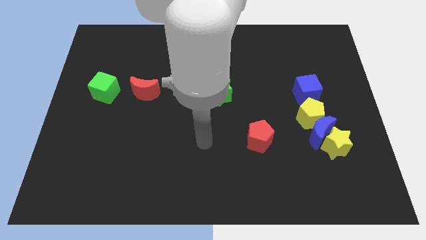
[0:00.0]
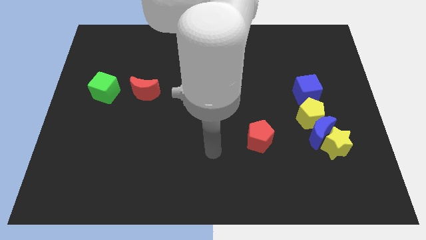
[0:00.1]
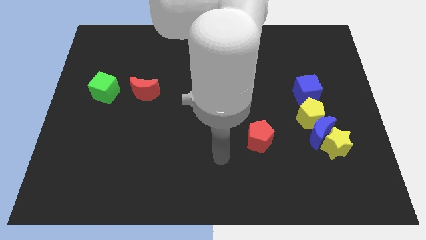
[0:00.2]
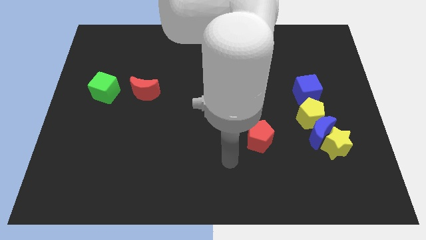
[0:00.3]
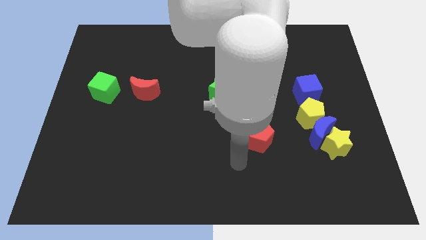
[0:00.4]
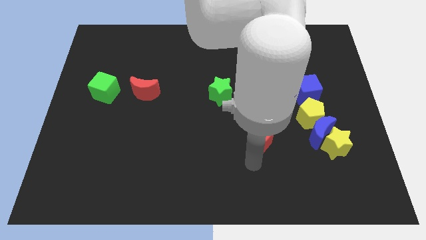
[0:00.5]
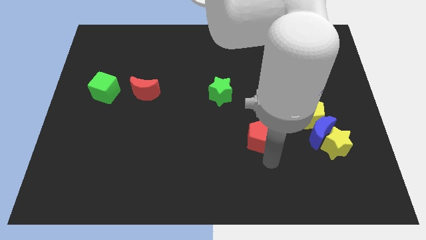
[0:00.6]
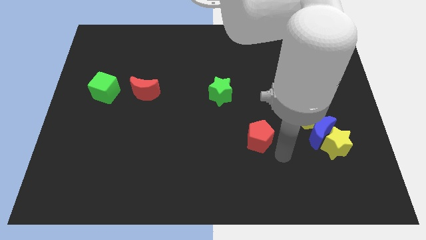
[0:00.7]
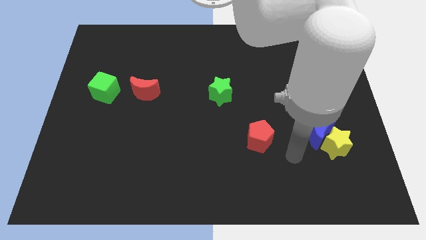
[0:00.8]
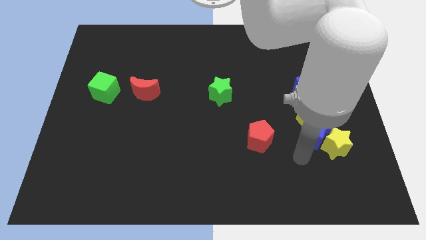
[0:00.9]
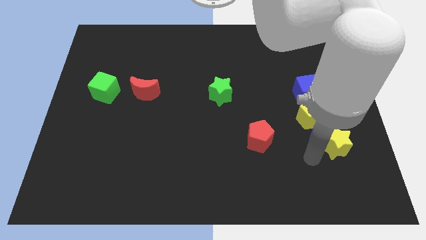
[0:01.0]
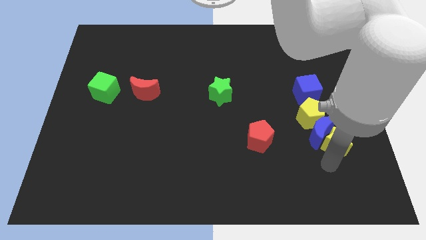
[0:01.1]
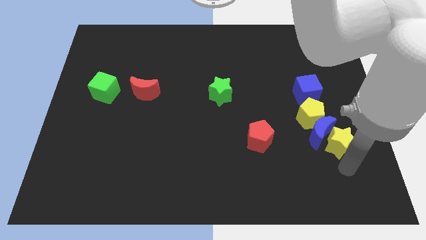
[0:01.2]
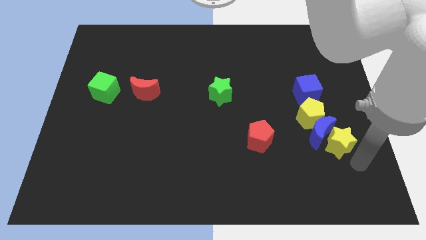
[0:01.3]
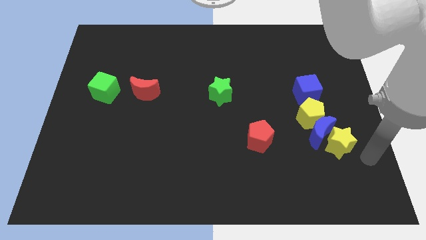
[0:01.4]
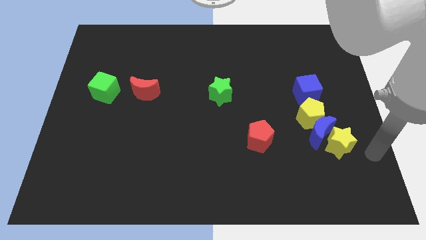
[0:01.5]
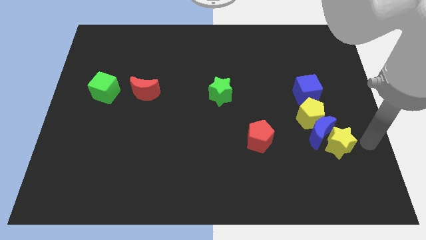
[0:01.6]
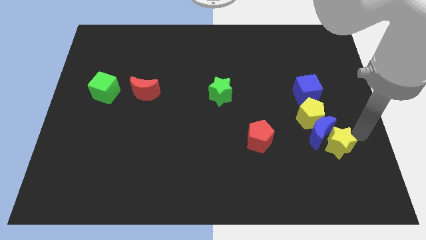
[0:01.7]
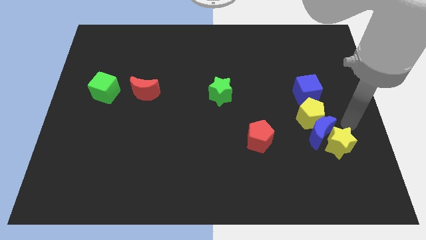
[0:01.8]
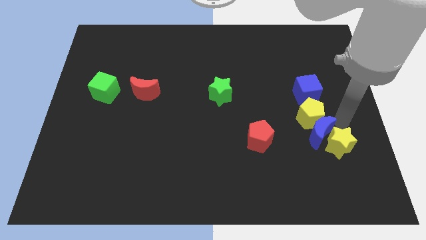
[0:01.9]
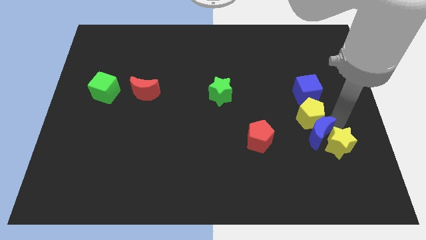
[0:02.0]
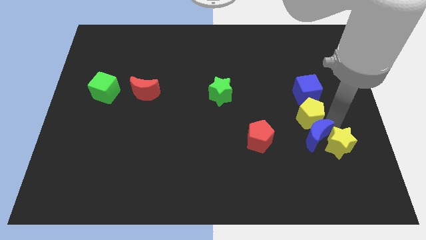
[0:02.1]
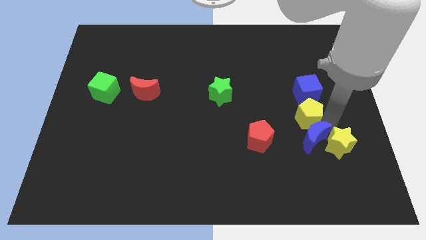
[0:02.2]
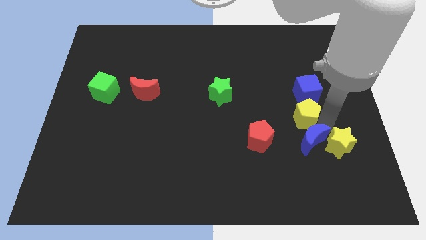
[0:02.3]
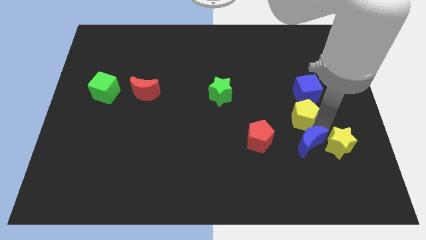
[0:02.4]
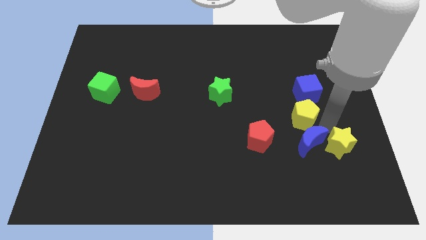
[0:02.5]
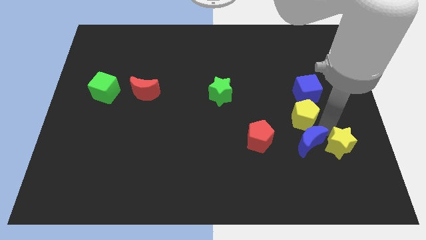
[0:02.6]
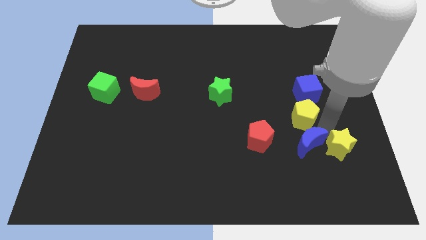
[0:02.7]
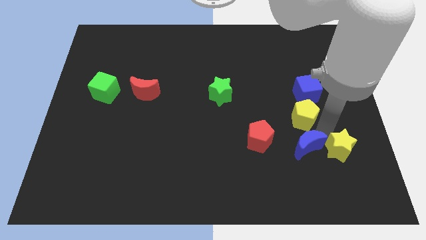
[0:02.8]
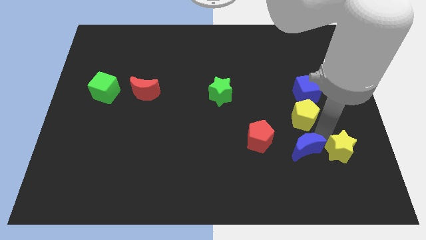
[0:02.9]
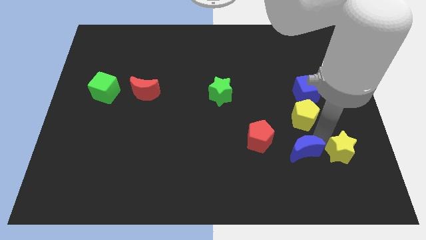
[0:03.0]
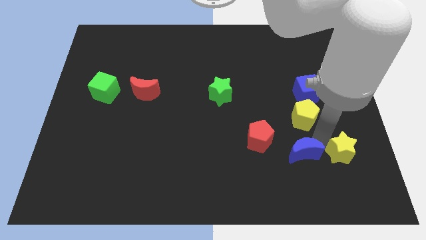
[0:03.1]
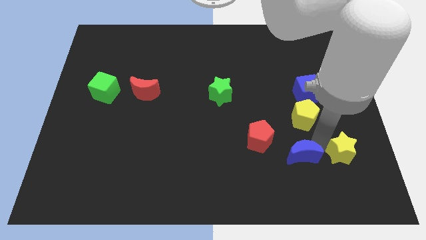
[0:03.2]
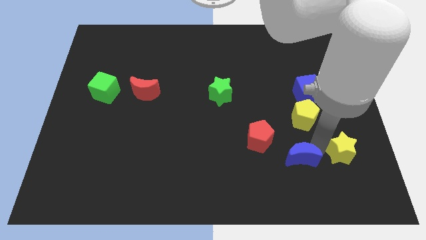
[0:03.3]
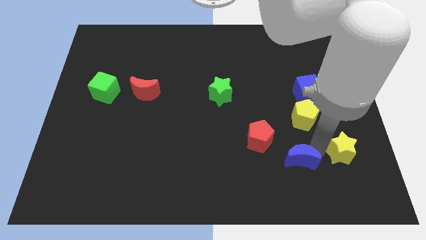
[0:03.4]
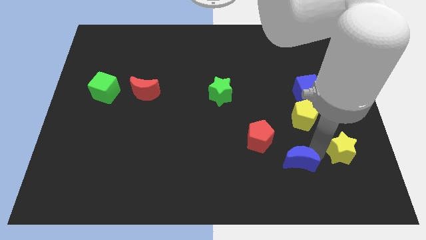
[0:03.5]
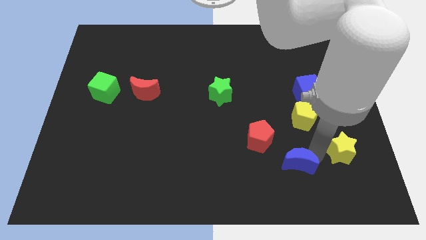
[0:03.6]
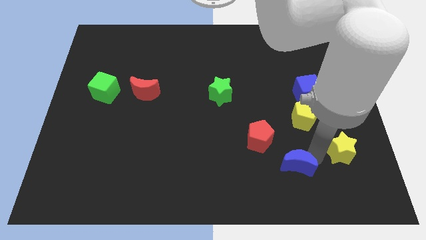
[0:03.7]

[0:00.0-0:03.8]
separate the blue moon from the yellow star and yellow pentagon

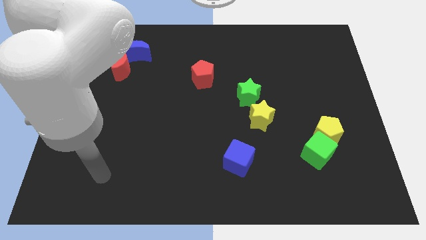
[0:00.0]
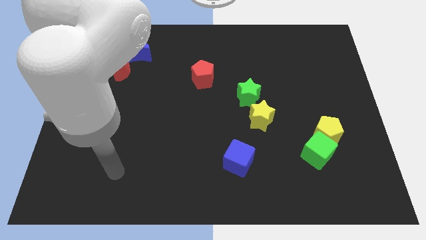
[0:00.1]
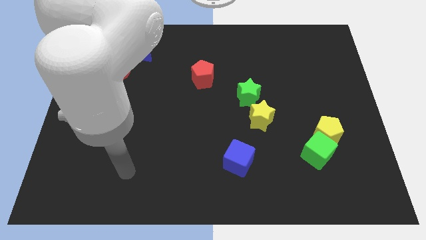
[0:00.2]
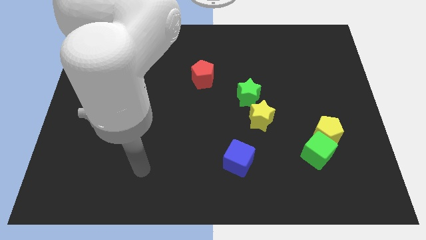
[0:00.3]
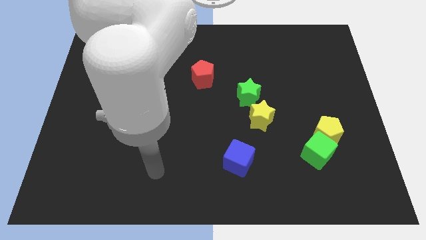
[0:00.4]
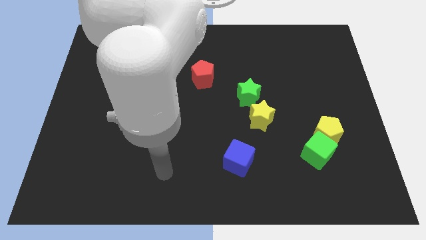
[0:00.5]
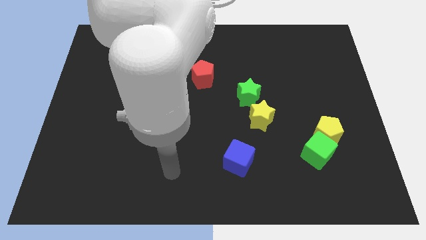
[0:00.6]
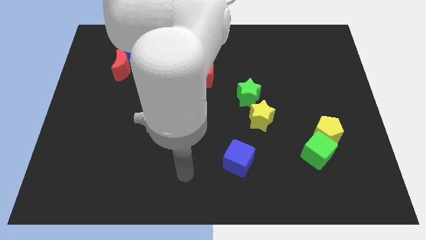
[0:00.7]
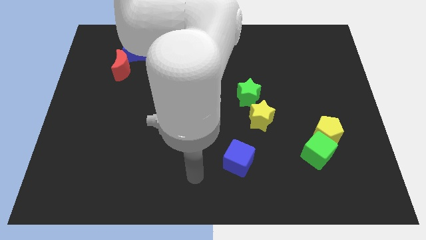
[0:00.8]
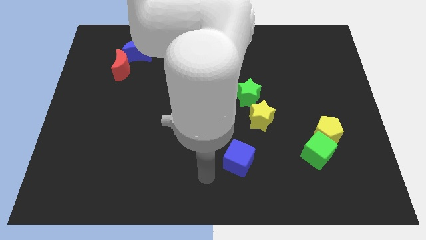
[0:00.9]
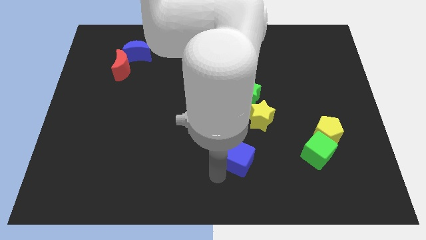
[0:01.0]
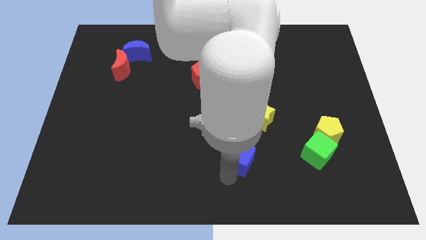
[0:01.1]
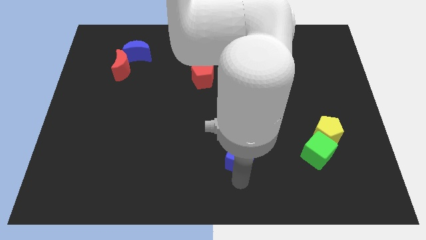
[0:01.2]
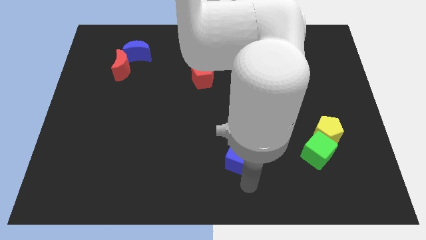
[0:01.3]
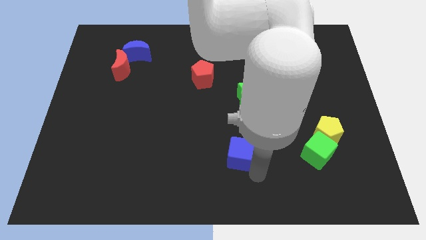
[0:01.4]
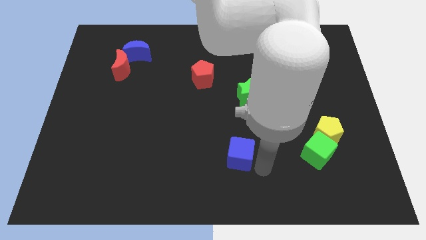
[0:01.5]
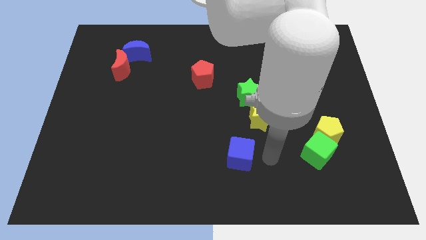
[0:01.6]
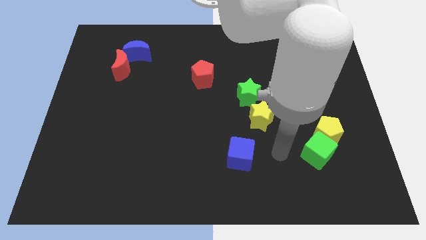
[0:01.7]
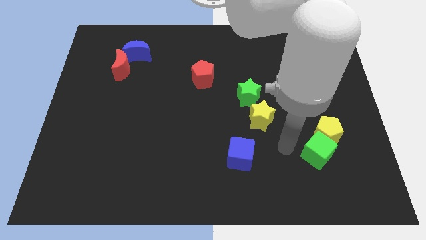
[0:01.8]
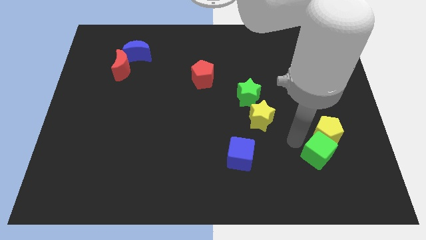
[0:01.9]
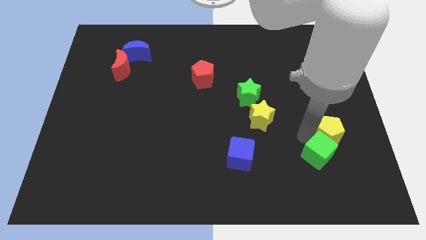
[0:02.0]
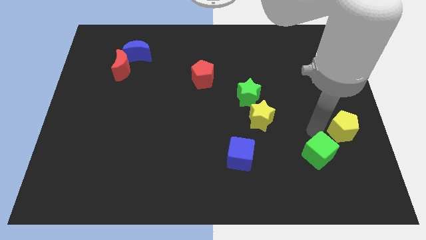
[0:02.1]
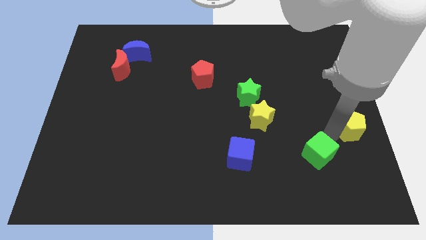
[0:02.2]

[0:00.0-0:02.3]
move the green cube away from the yellow pentagon

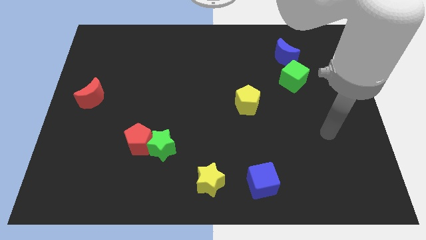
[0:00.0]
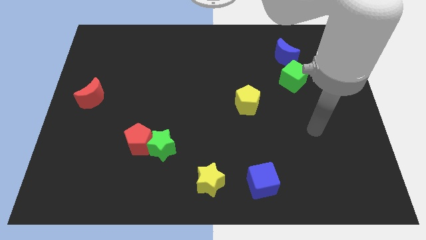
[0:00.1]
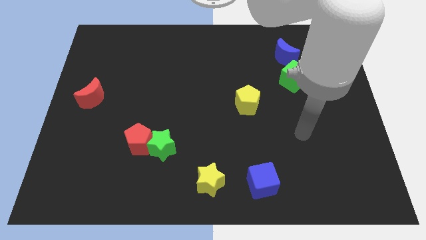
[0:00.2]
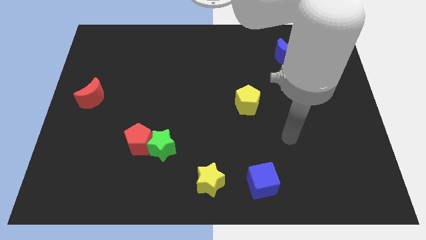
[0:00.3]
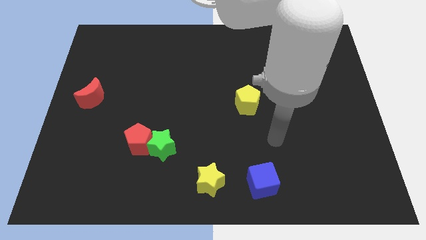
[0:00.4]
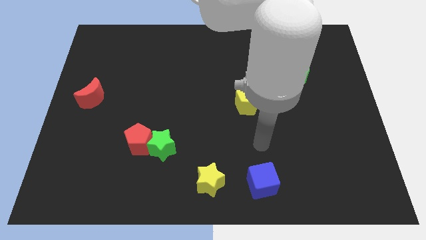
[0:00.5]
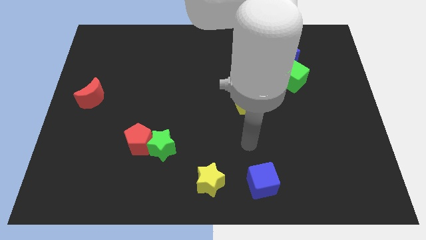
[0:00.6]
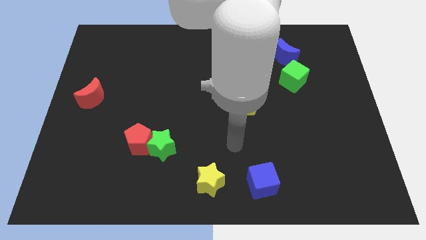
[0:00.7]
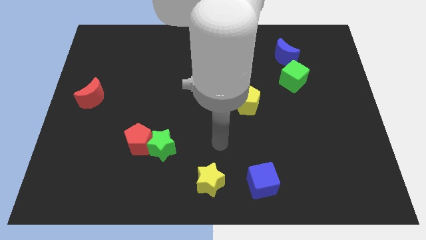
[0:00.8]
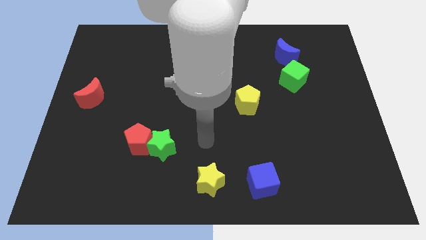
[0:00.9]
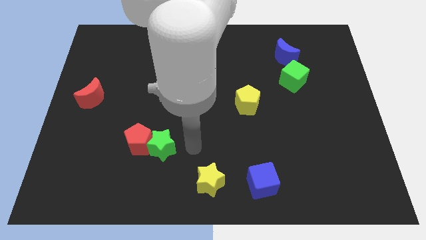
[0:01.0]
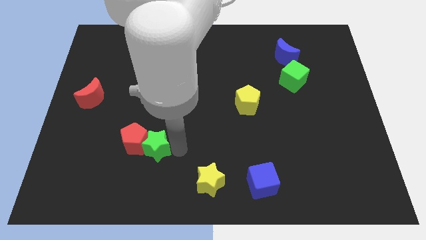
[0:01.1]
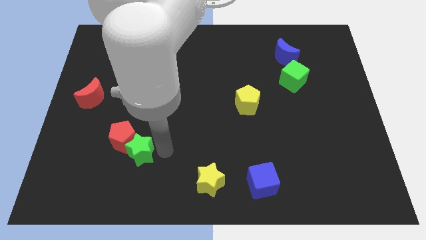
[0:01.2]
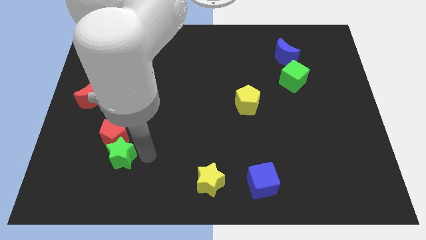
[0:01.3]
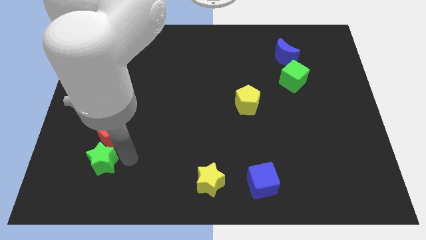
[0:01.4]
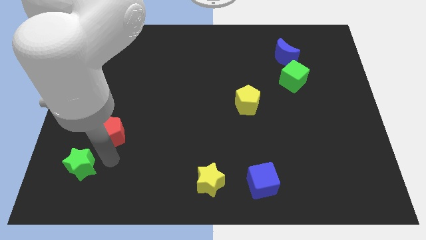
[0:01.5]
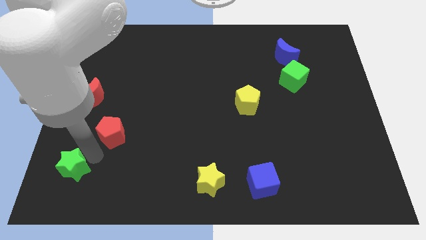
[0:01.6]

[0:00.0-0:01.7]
move the red pentagon away from the green star

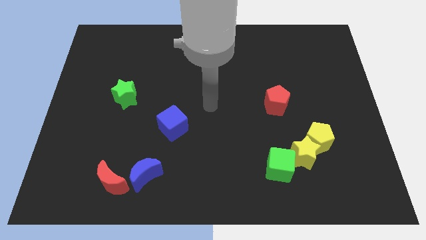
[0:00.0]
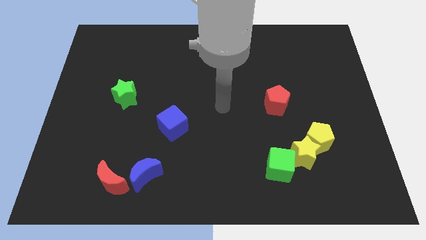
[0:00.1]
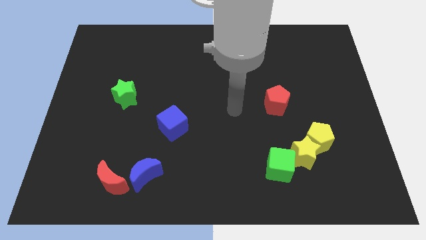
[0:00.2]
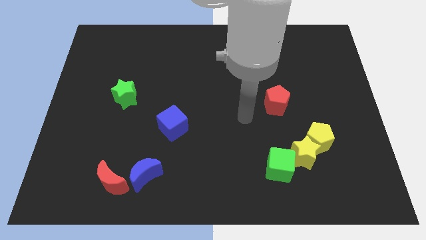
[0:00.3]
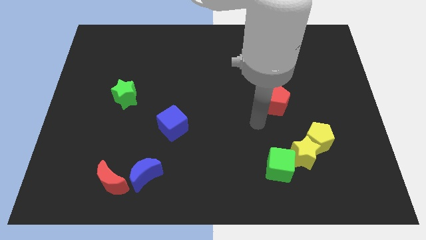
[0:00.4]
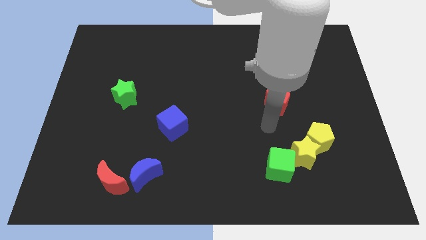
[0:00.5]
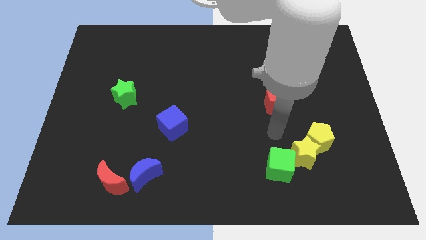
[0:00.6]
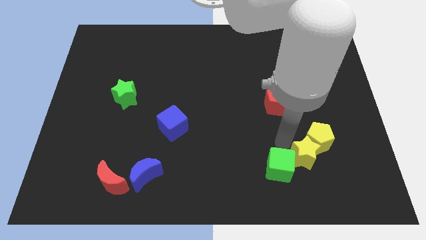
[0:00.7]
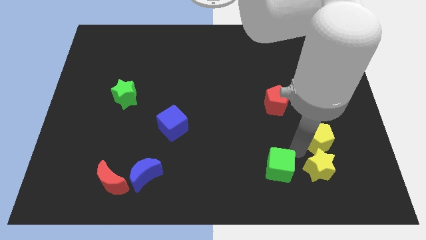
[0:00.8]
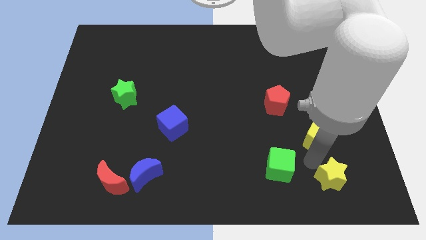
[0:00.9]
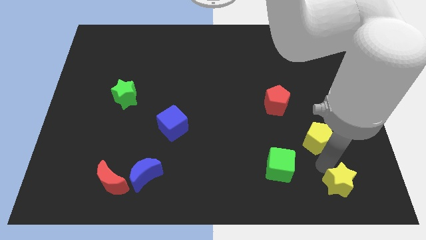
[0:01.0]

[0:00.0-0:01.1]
separate the yellow pentagon from the yellow star

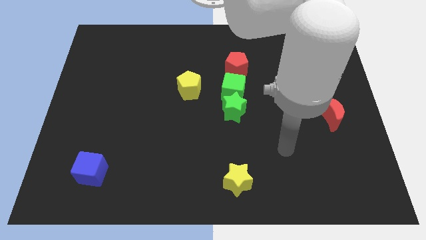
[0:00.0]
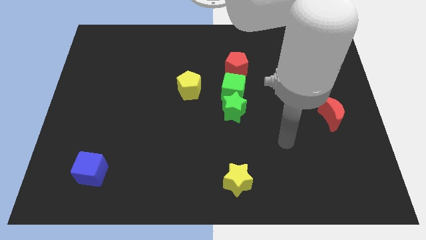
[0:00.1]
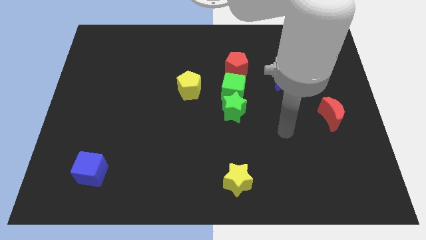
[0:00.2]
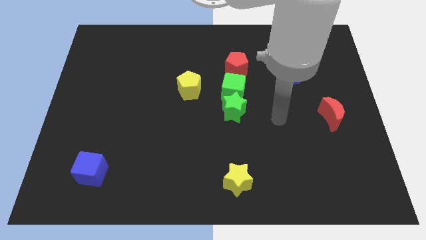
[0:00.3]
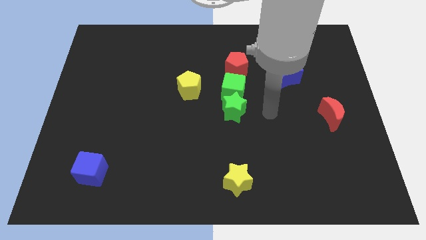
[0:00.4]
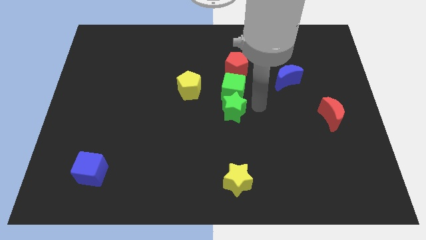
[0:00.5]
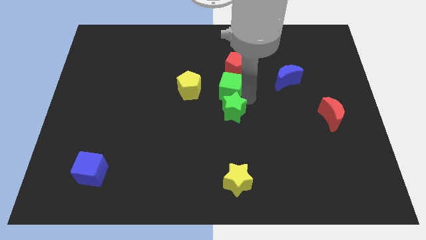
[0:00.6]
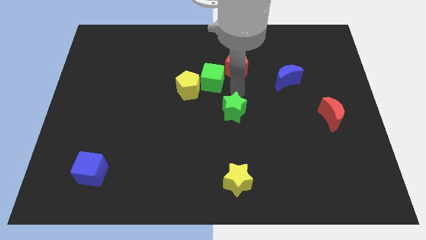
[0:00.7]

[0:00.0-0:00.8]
move the green star away from the green cube
